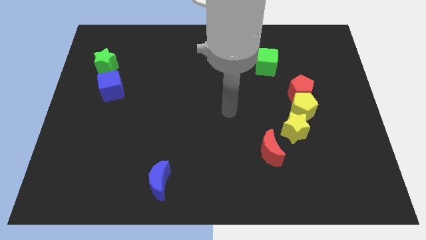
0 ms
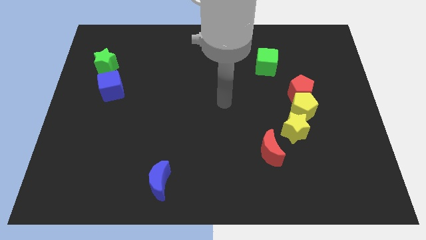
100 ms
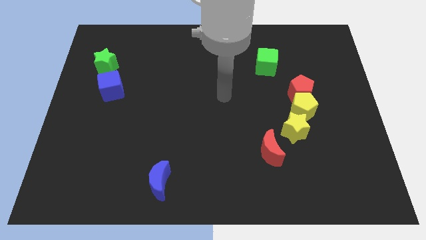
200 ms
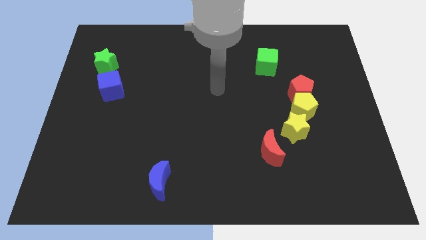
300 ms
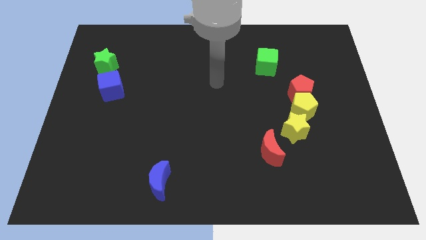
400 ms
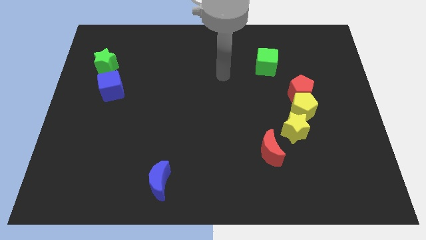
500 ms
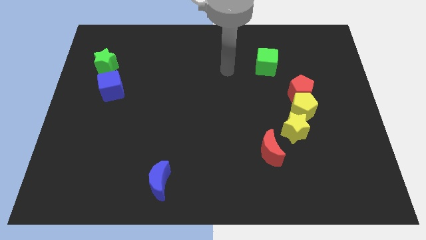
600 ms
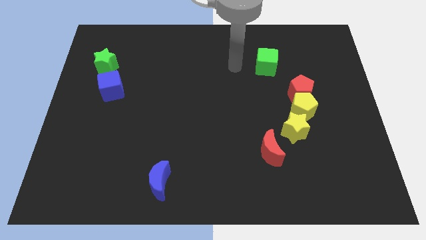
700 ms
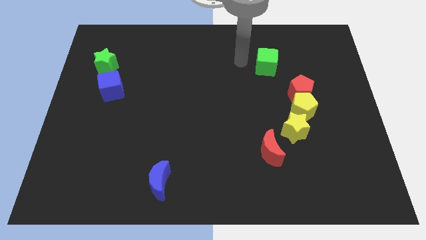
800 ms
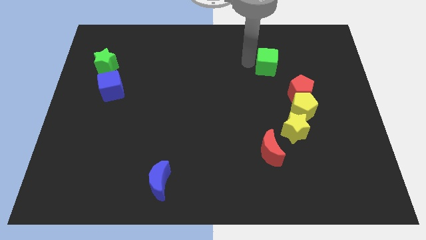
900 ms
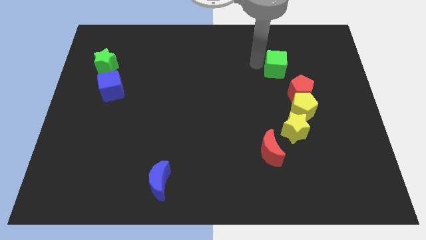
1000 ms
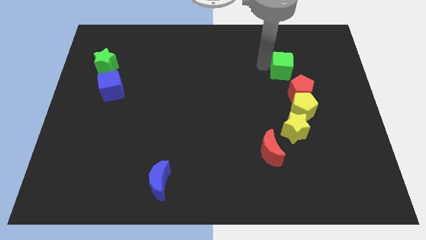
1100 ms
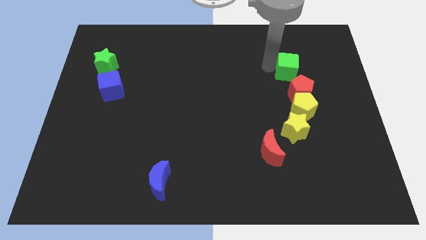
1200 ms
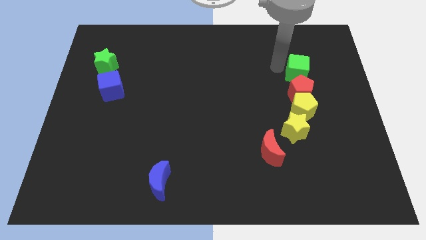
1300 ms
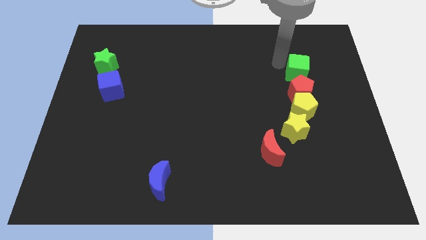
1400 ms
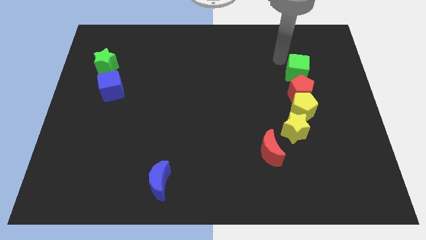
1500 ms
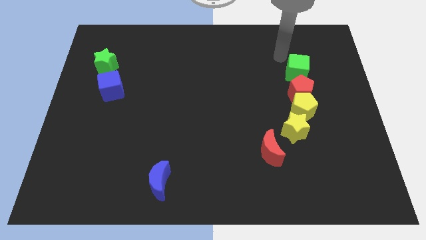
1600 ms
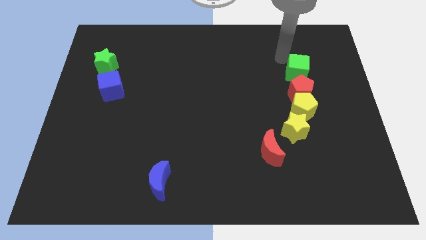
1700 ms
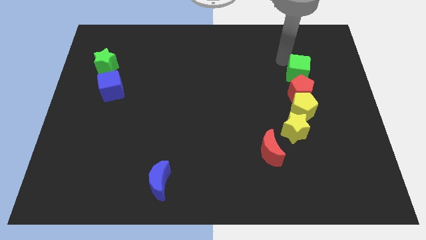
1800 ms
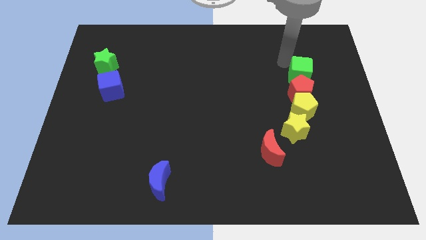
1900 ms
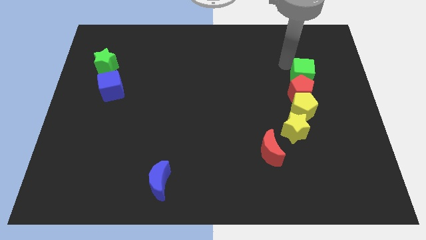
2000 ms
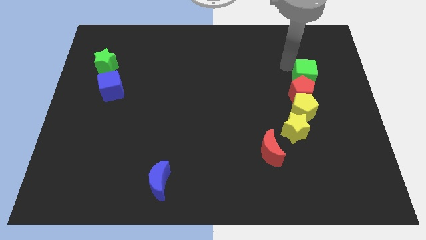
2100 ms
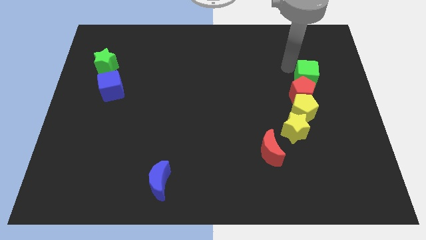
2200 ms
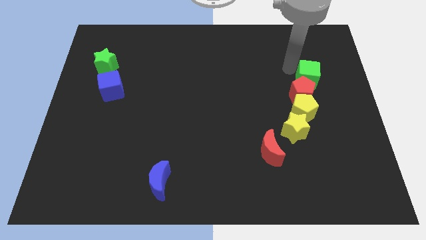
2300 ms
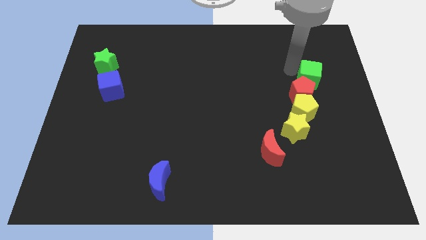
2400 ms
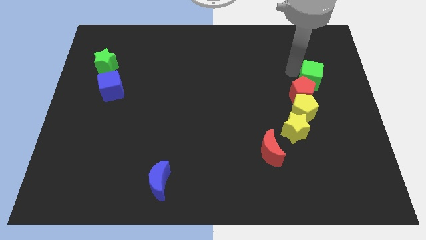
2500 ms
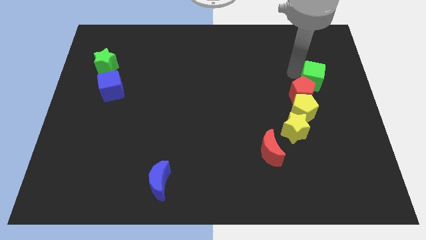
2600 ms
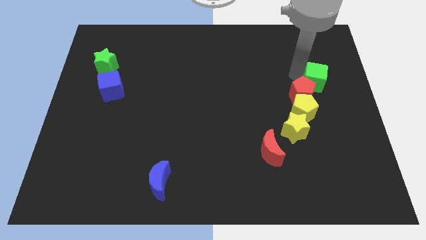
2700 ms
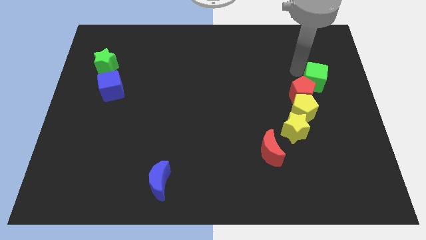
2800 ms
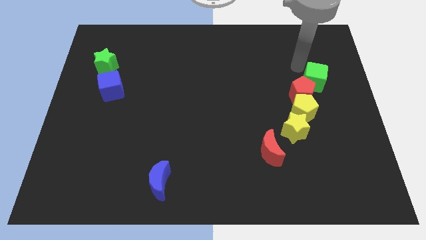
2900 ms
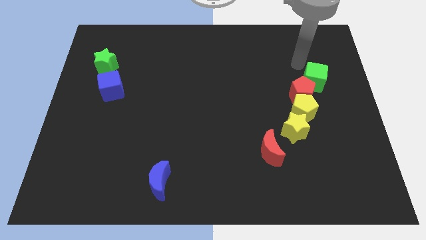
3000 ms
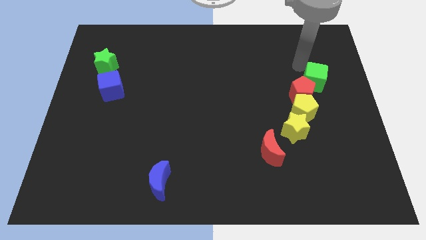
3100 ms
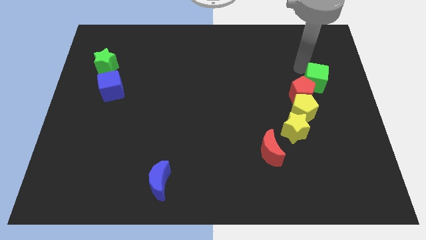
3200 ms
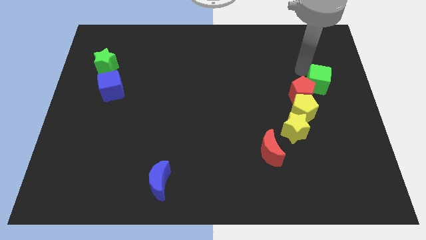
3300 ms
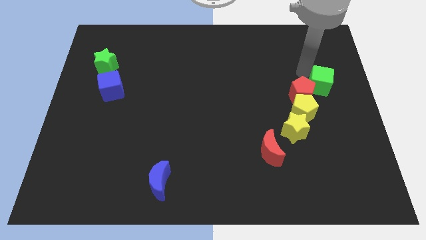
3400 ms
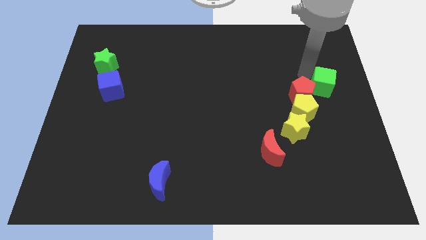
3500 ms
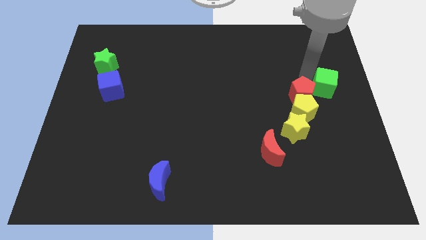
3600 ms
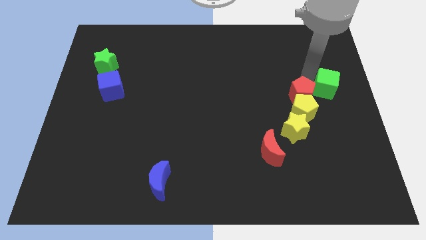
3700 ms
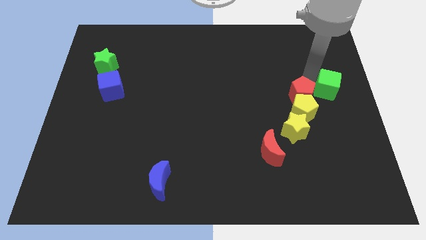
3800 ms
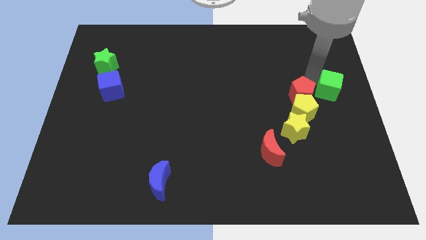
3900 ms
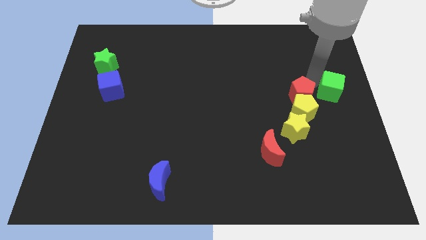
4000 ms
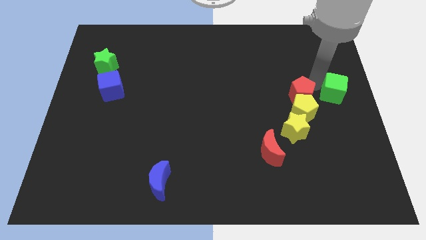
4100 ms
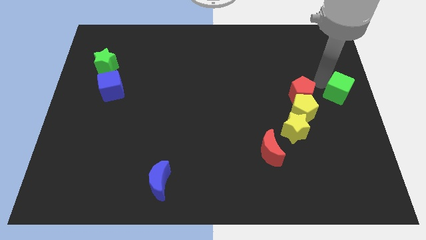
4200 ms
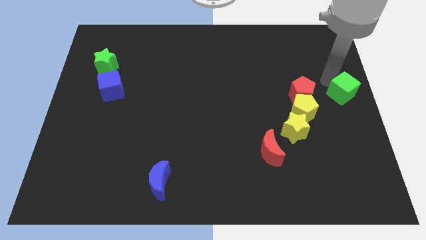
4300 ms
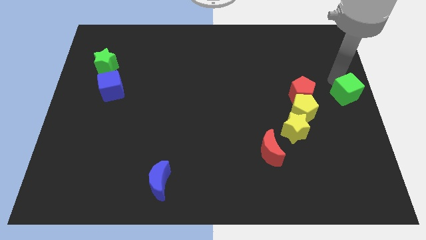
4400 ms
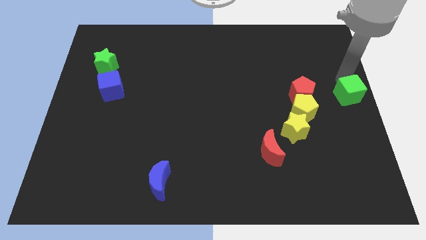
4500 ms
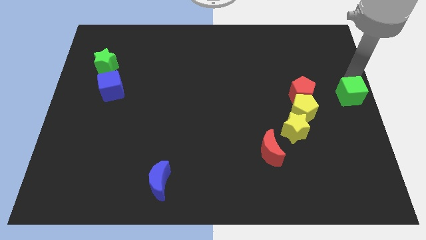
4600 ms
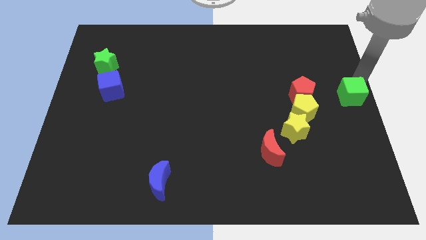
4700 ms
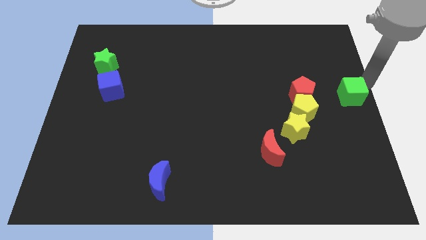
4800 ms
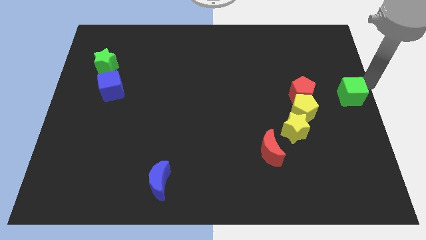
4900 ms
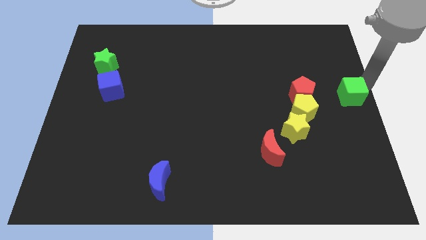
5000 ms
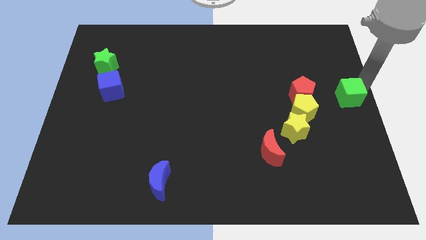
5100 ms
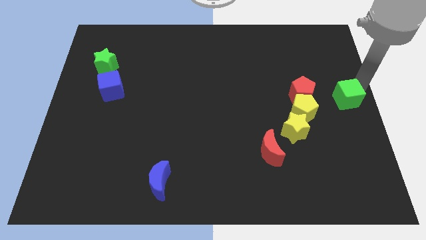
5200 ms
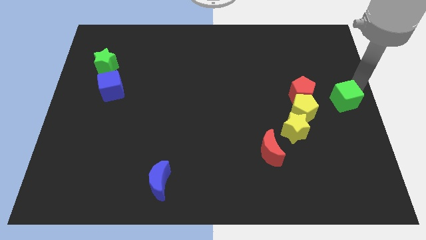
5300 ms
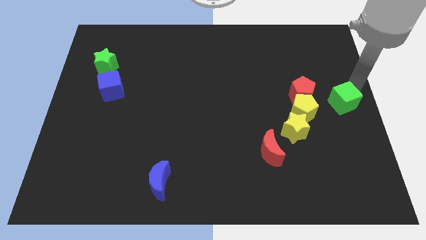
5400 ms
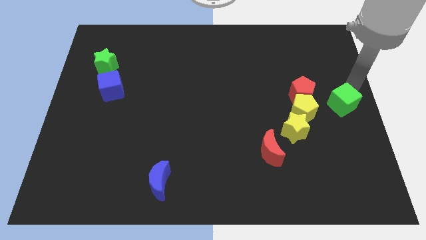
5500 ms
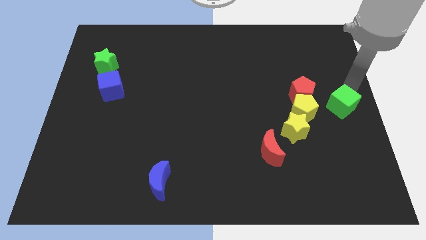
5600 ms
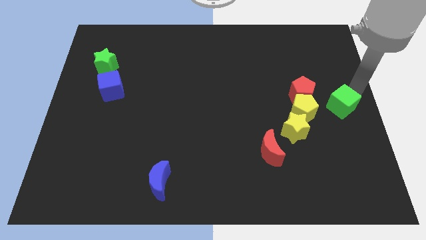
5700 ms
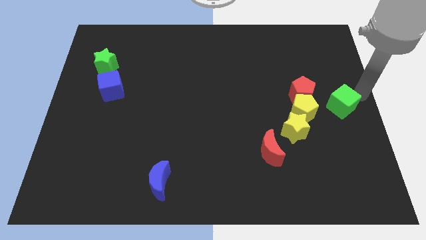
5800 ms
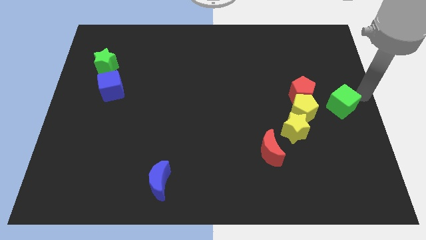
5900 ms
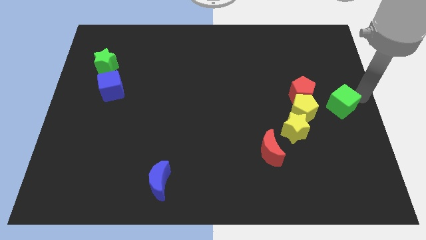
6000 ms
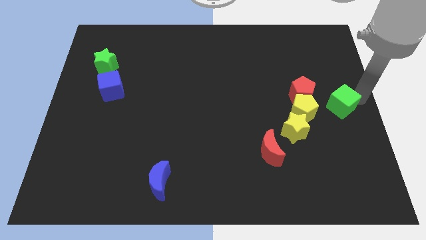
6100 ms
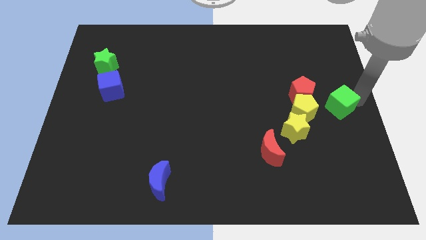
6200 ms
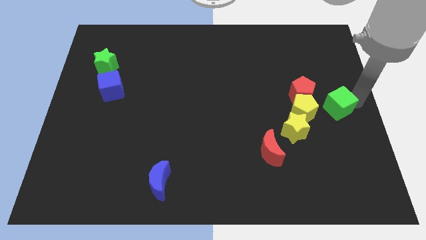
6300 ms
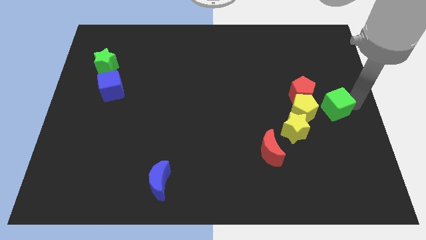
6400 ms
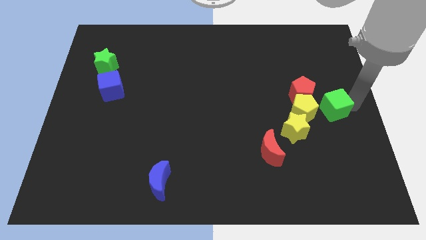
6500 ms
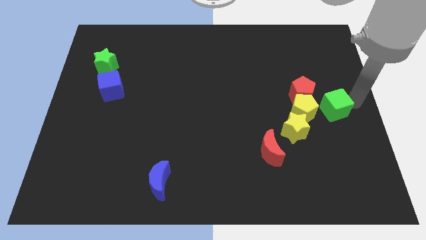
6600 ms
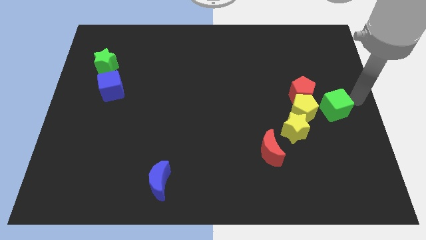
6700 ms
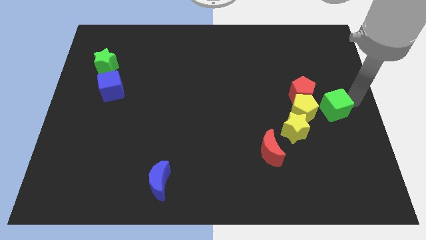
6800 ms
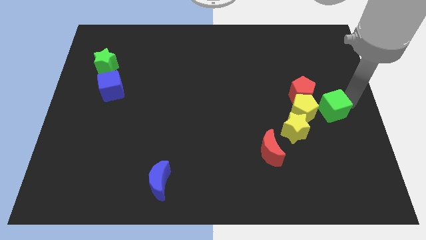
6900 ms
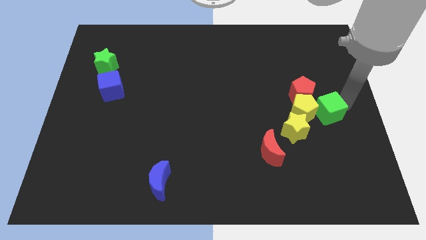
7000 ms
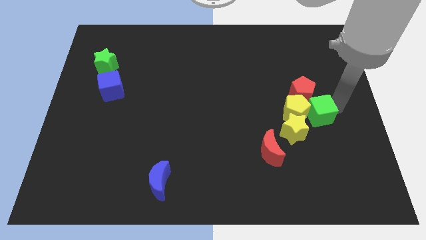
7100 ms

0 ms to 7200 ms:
move the green cube to the bottom of the red pentagon
